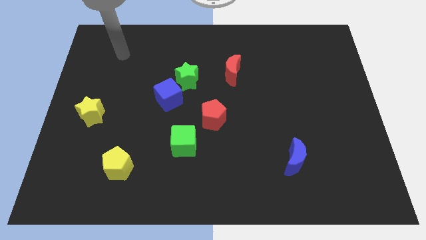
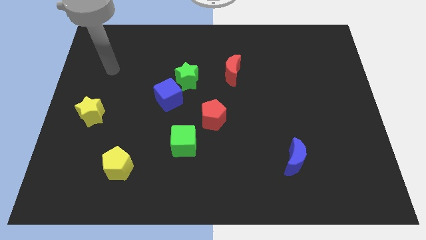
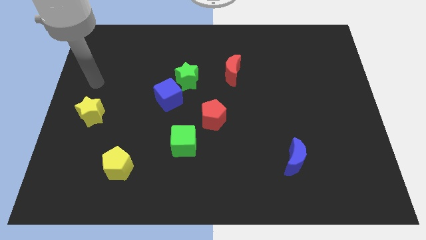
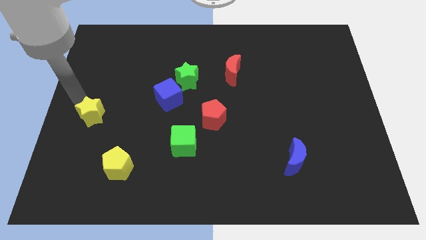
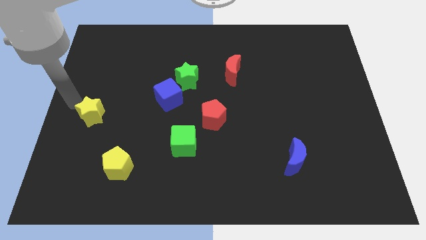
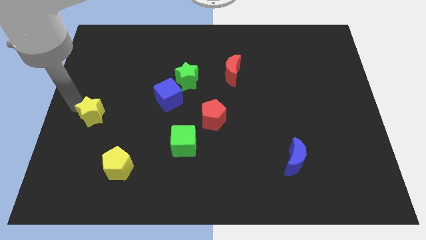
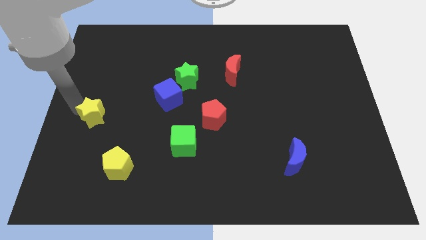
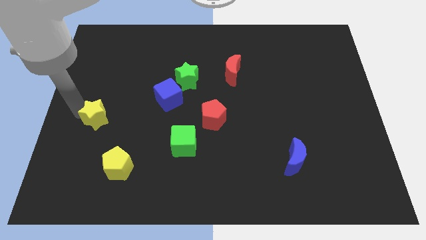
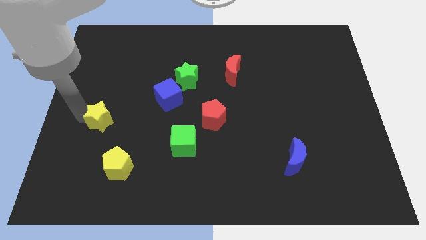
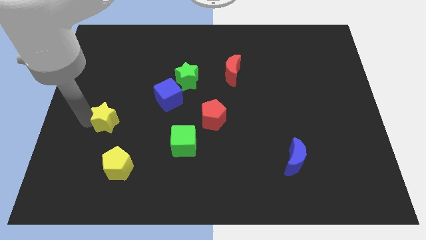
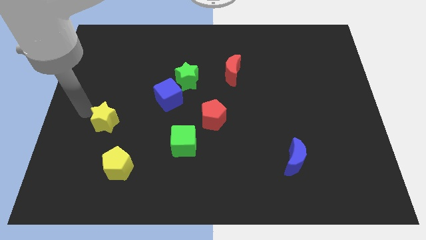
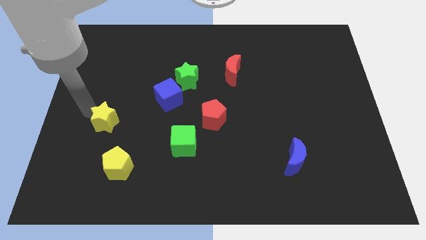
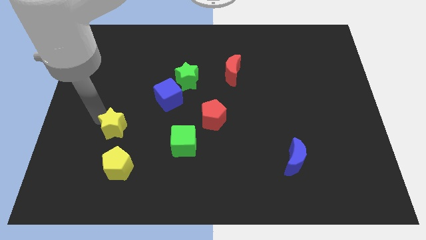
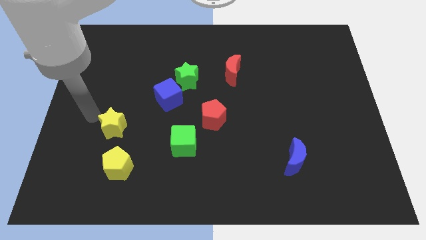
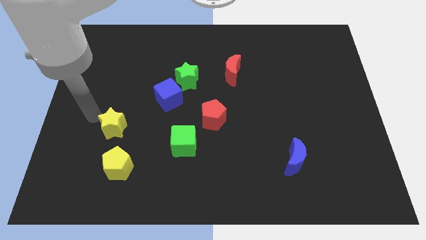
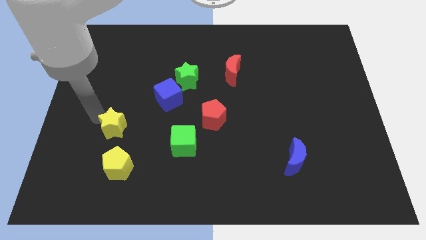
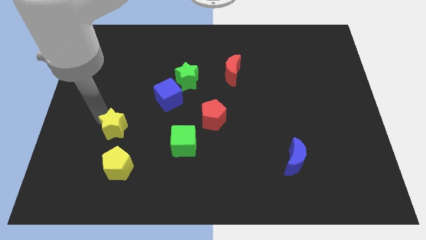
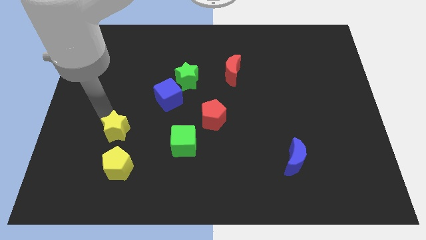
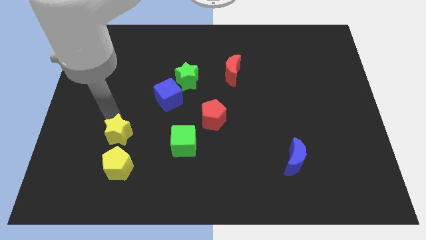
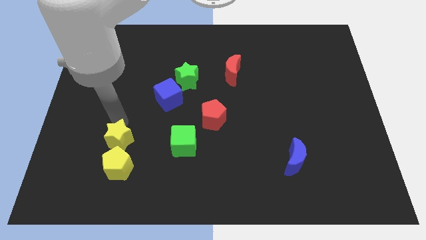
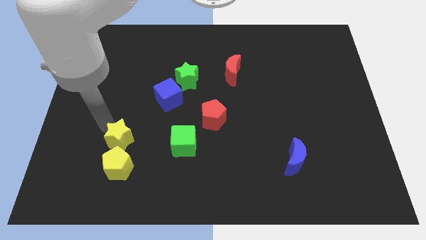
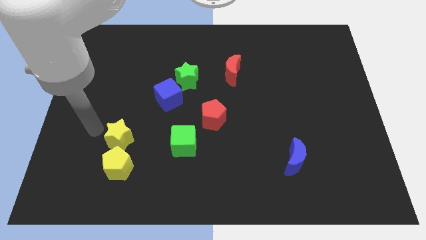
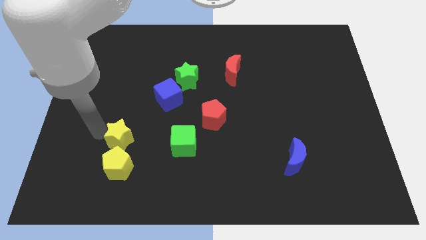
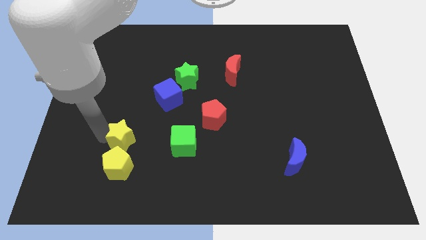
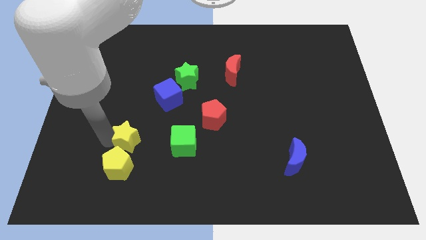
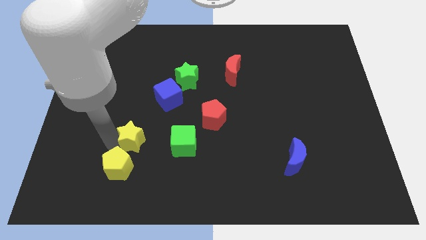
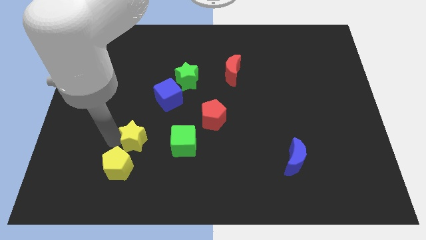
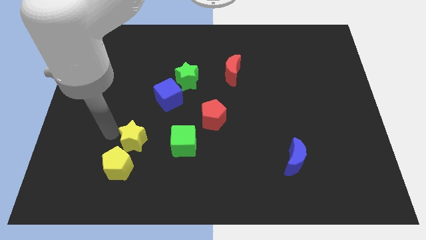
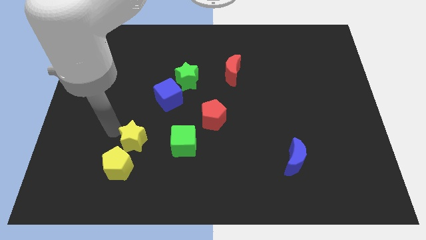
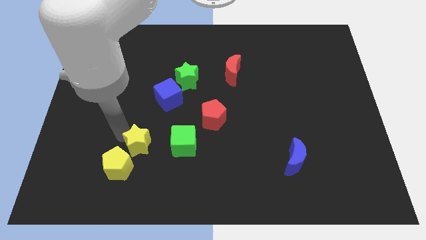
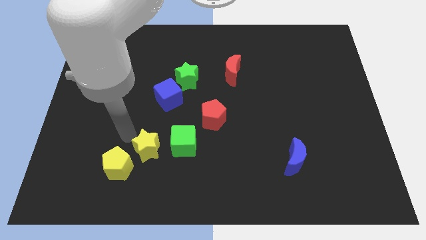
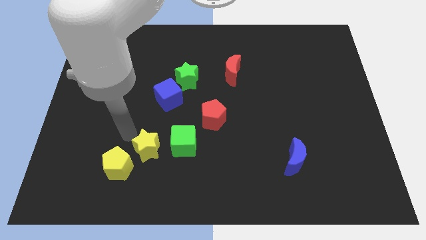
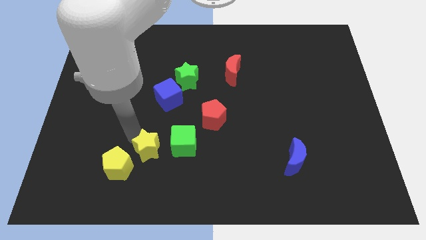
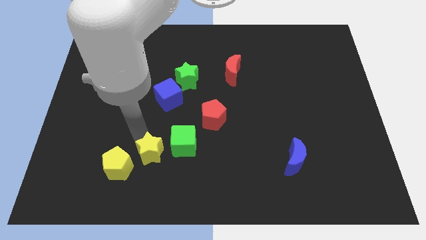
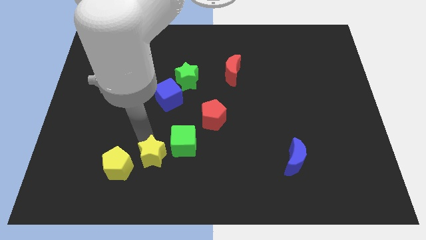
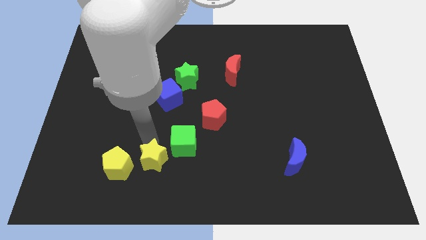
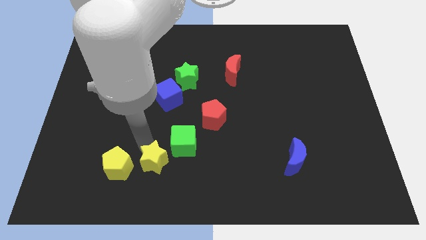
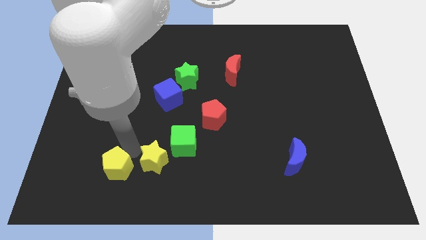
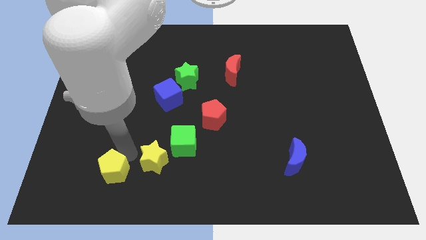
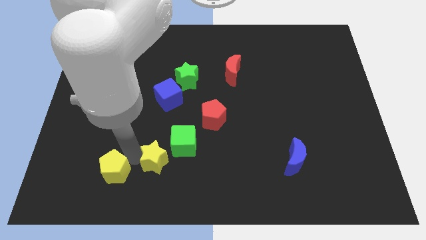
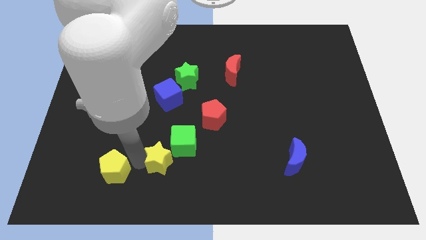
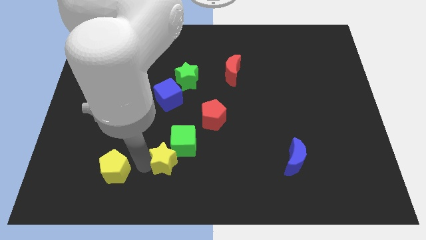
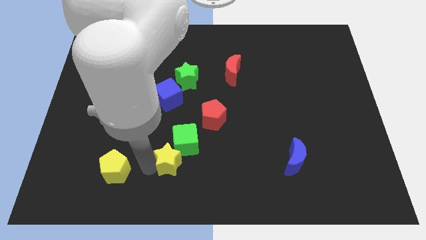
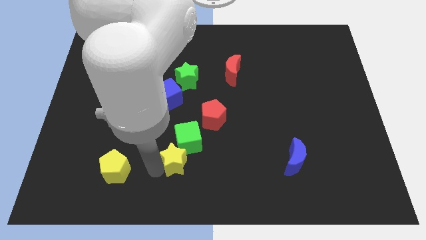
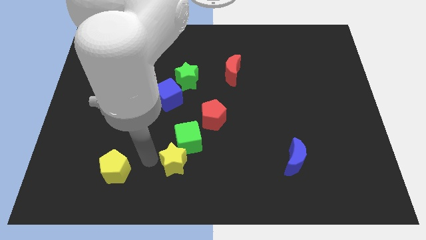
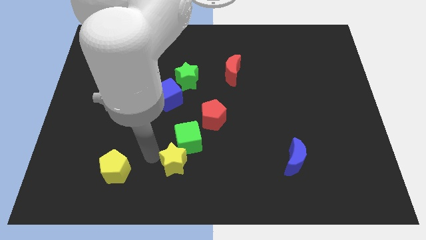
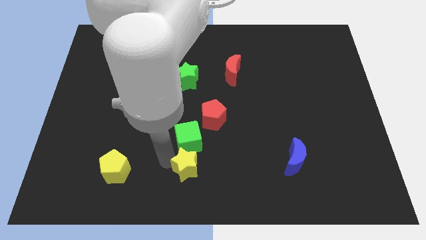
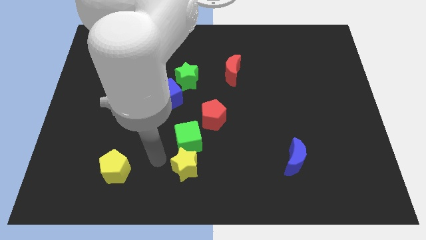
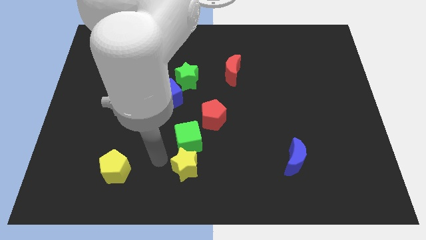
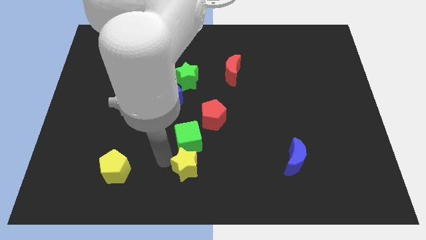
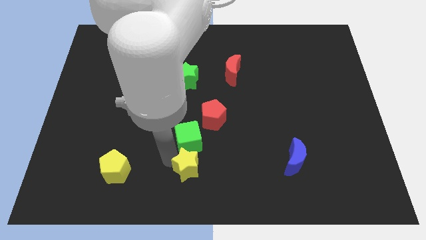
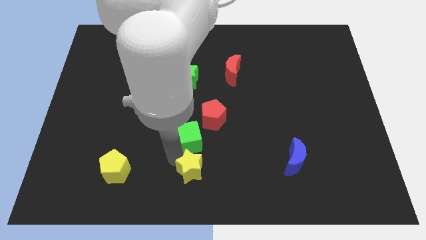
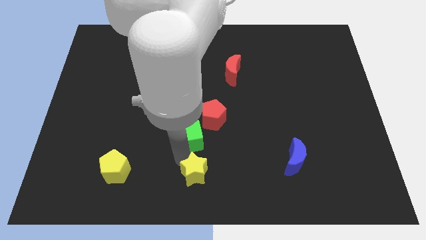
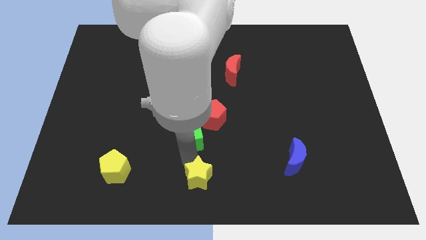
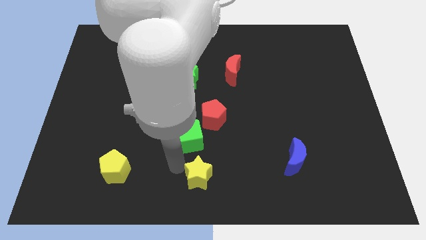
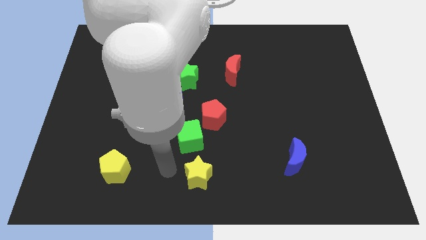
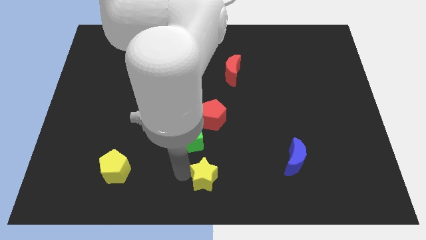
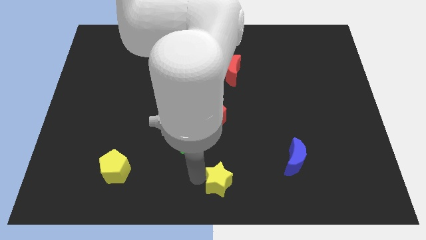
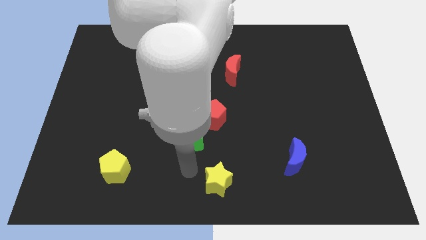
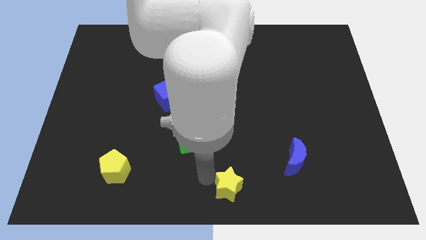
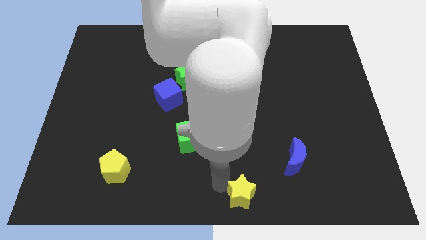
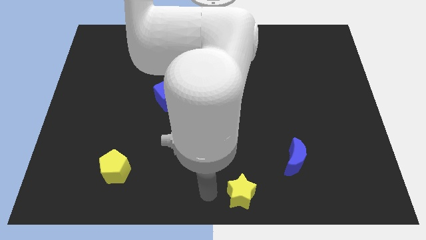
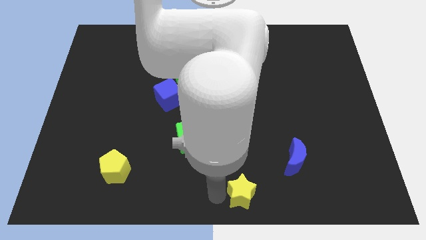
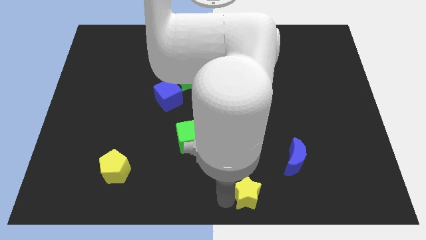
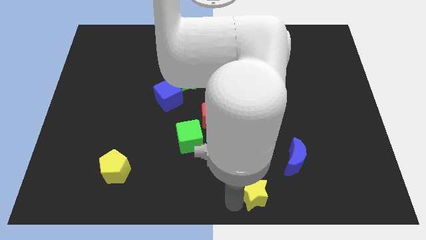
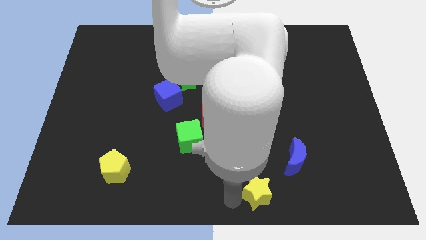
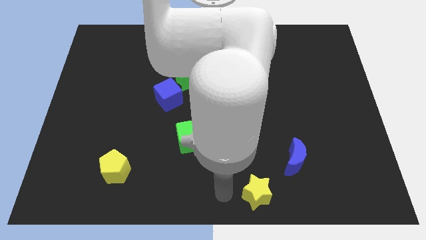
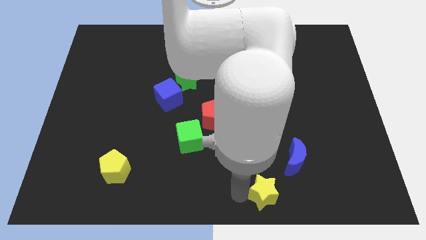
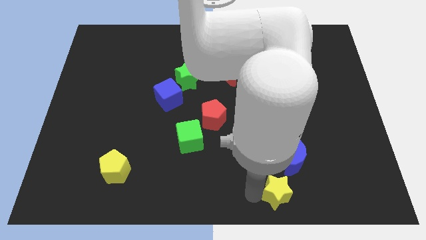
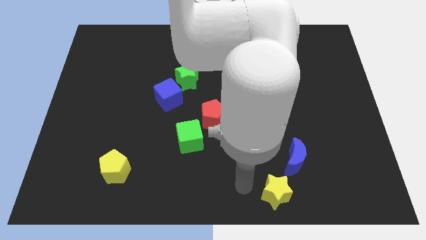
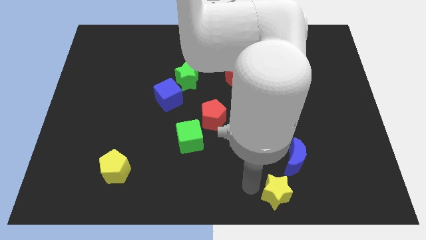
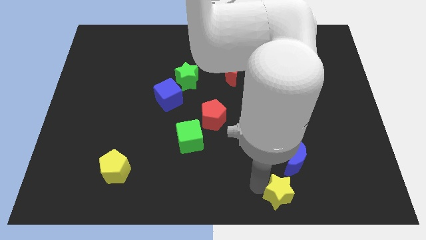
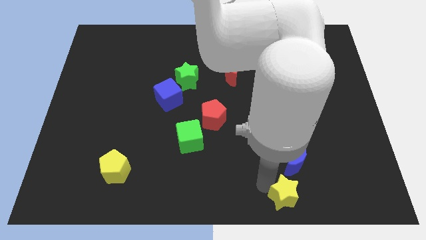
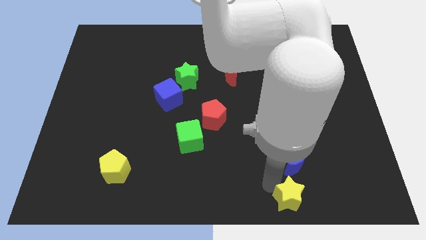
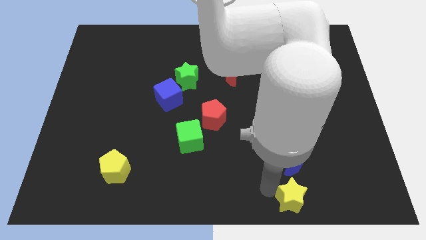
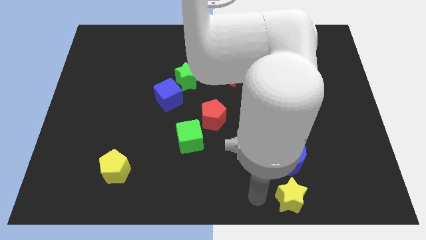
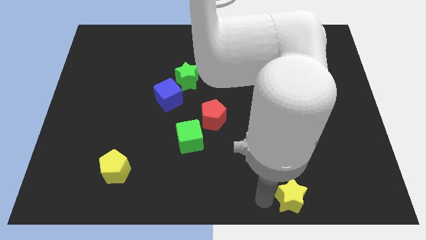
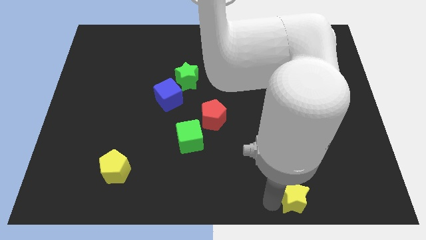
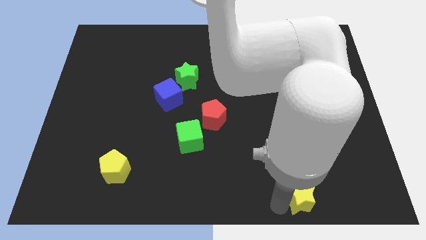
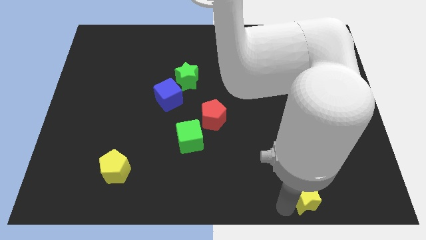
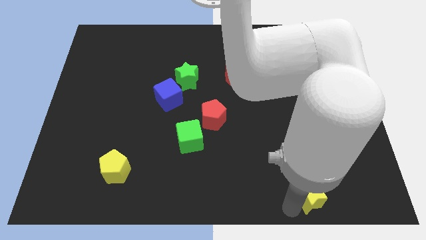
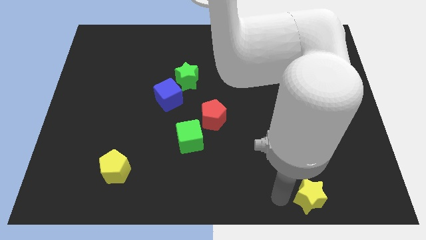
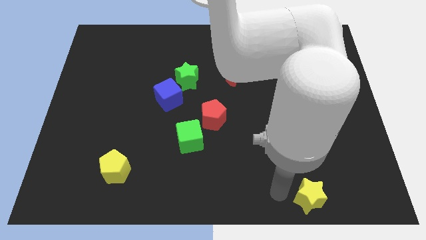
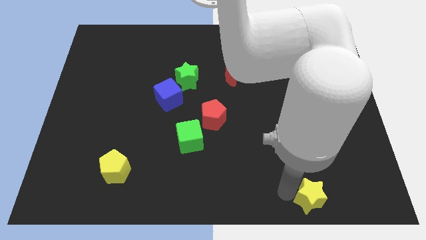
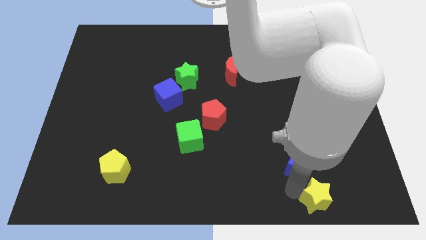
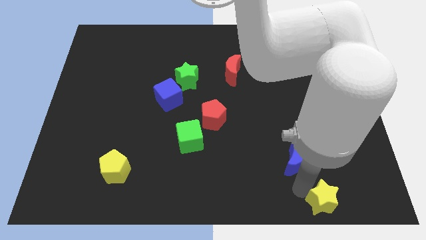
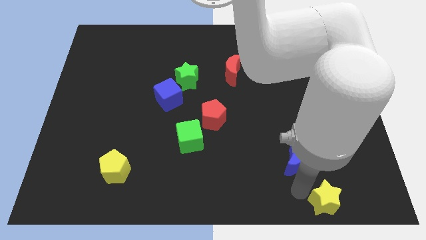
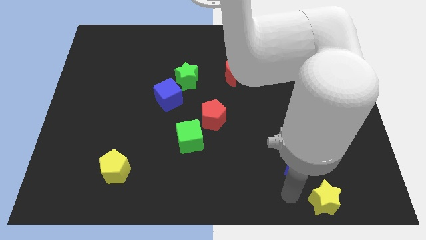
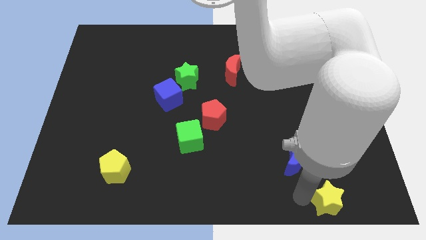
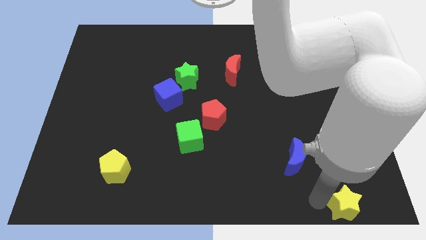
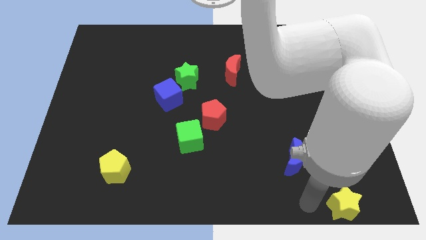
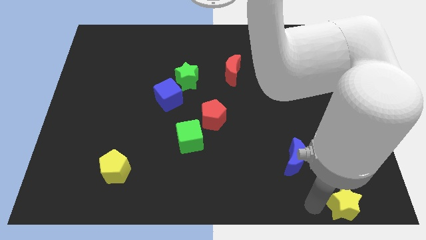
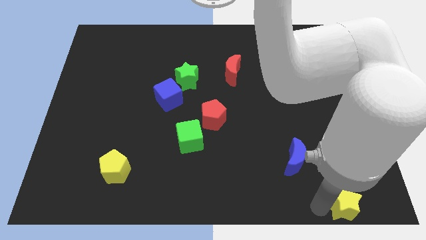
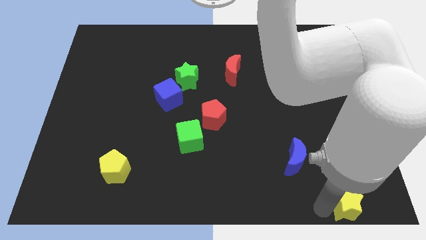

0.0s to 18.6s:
put the yellow star to the lower right corner
